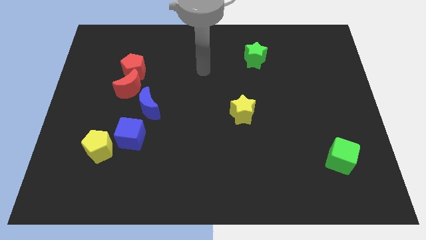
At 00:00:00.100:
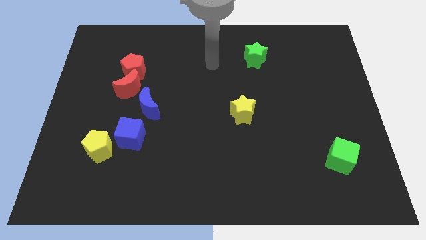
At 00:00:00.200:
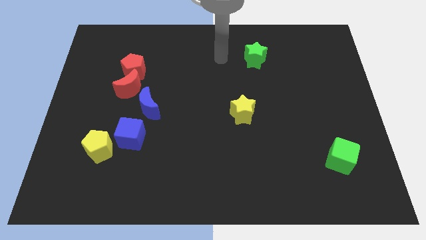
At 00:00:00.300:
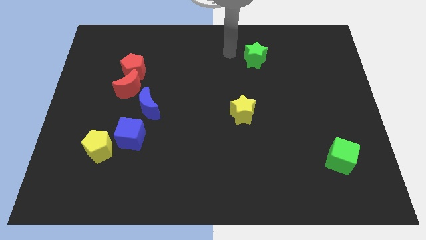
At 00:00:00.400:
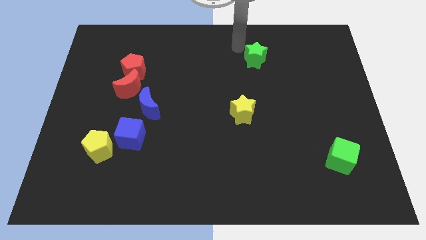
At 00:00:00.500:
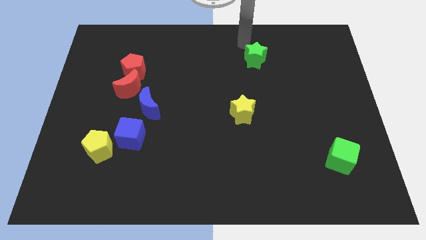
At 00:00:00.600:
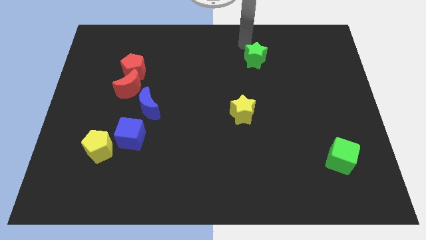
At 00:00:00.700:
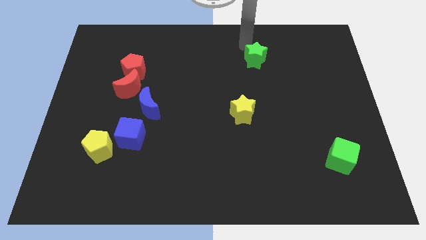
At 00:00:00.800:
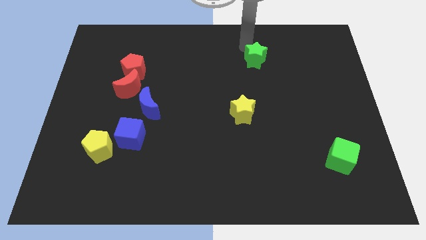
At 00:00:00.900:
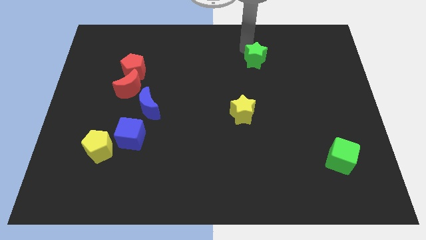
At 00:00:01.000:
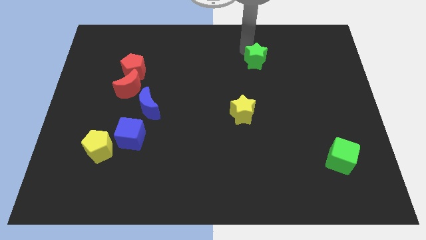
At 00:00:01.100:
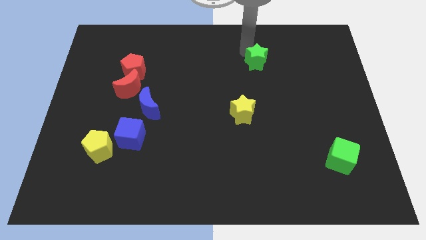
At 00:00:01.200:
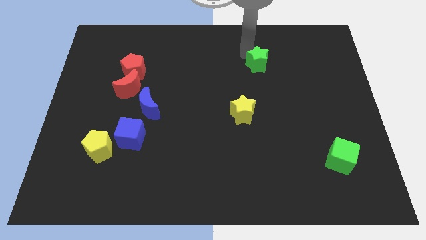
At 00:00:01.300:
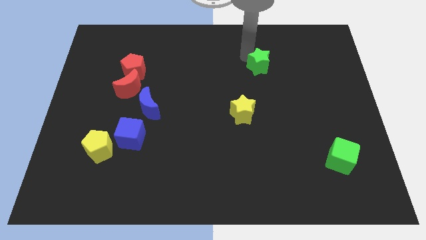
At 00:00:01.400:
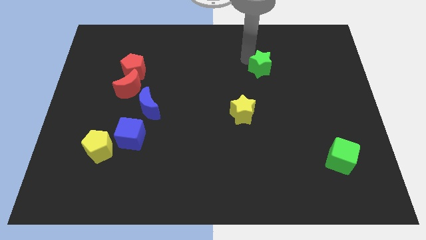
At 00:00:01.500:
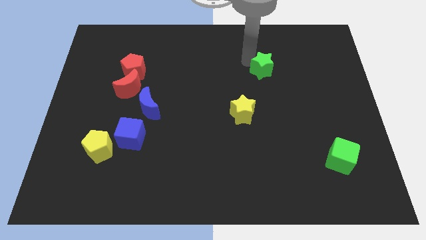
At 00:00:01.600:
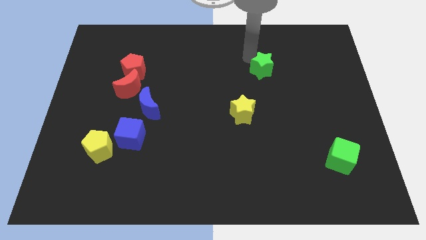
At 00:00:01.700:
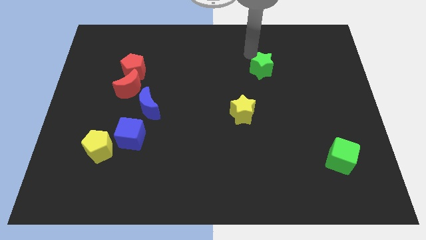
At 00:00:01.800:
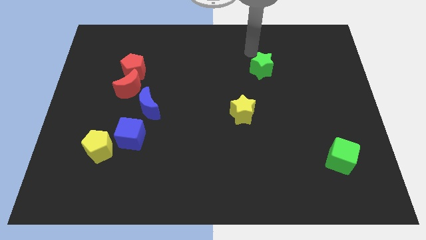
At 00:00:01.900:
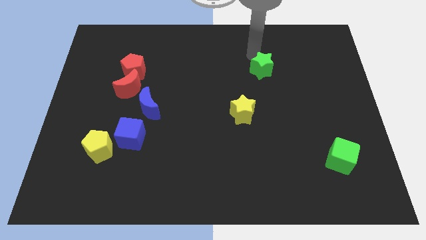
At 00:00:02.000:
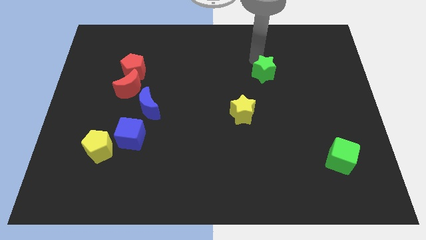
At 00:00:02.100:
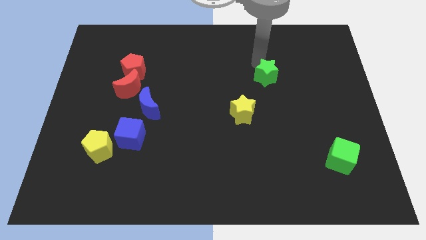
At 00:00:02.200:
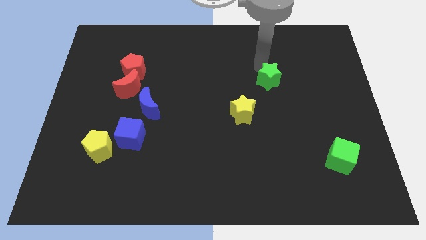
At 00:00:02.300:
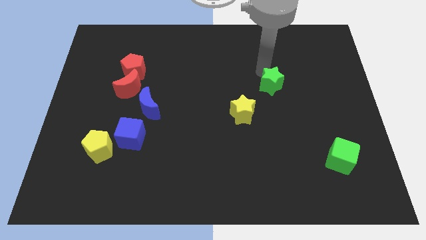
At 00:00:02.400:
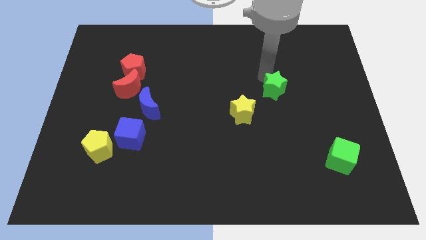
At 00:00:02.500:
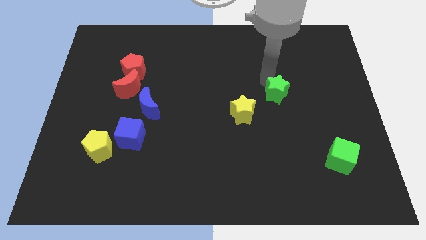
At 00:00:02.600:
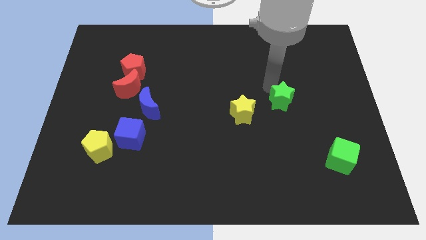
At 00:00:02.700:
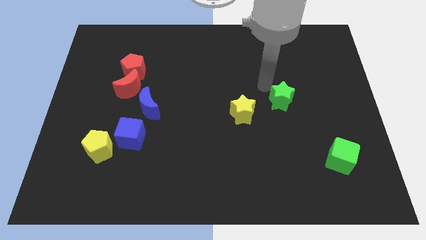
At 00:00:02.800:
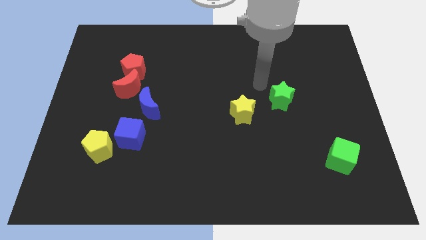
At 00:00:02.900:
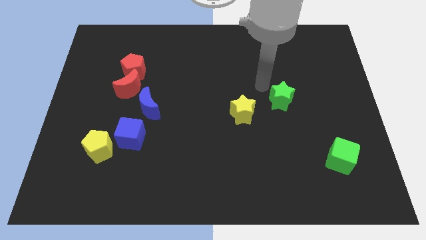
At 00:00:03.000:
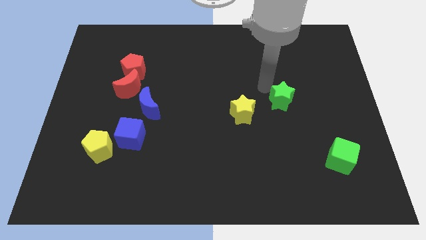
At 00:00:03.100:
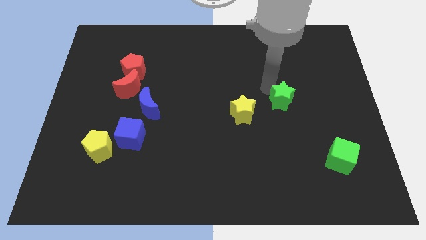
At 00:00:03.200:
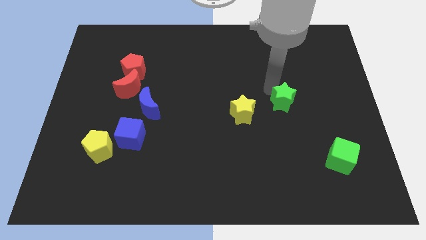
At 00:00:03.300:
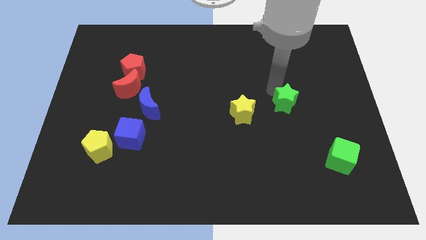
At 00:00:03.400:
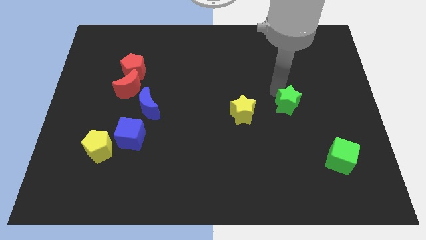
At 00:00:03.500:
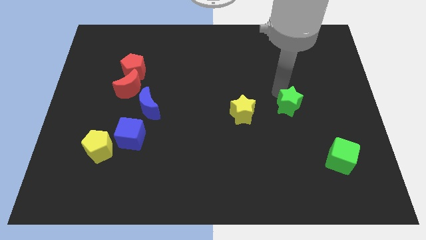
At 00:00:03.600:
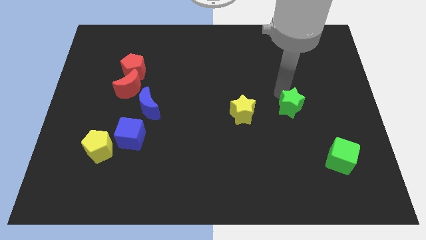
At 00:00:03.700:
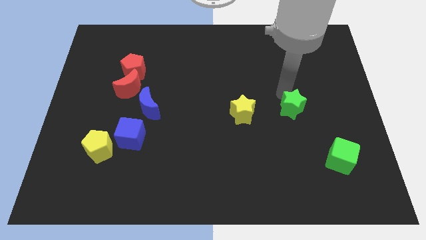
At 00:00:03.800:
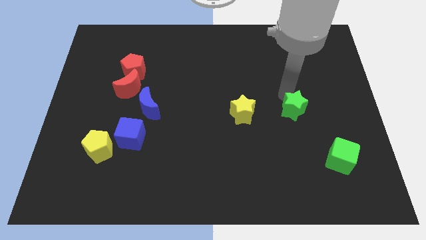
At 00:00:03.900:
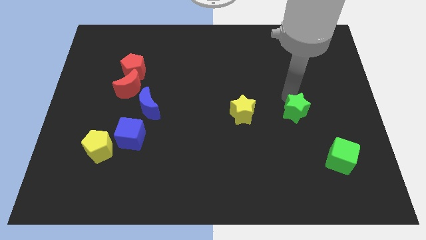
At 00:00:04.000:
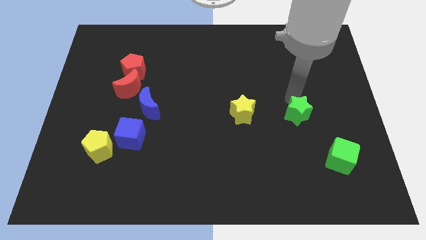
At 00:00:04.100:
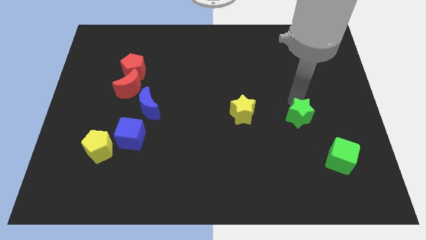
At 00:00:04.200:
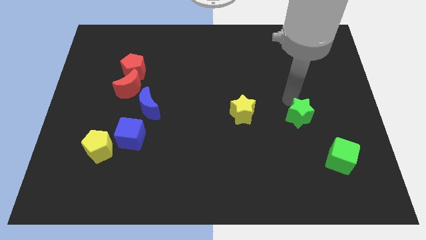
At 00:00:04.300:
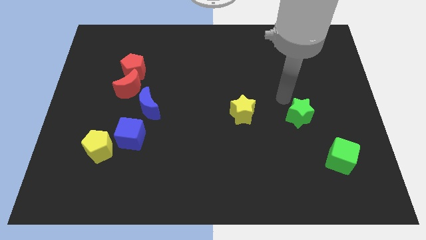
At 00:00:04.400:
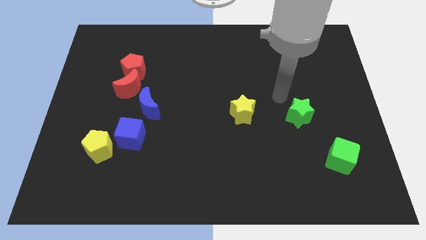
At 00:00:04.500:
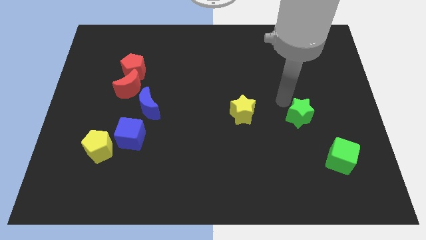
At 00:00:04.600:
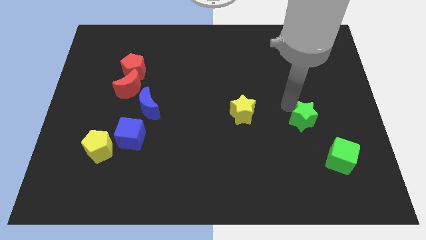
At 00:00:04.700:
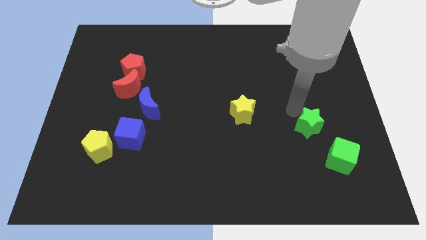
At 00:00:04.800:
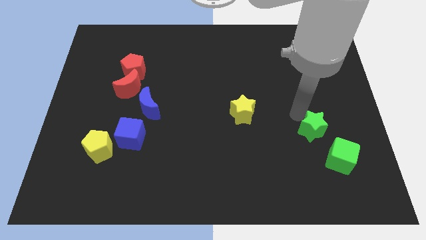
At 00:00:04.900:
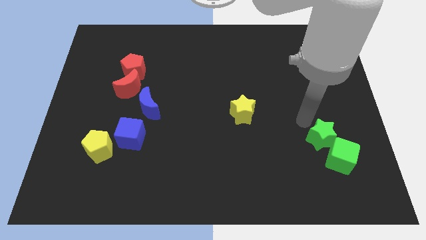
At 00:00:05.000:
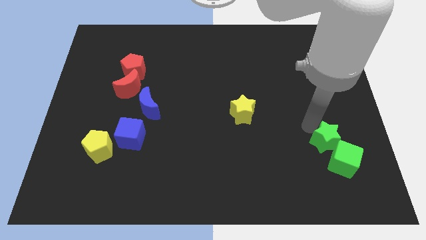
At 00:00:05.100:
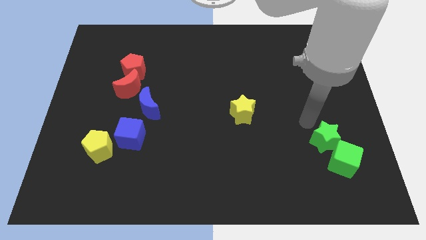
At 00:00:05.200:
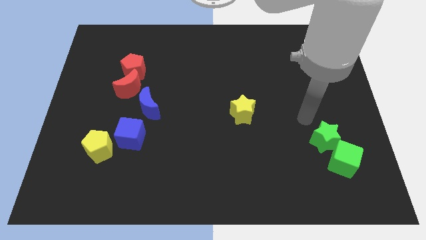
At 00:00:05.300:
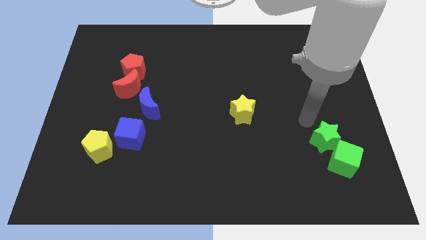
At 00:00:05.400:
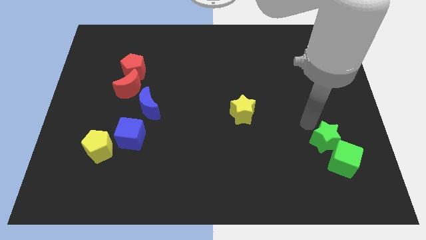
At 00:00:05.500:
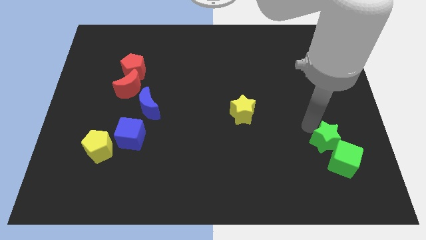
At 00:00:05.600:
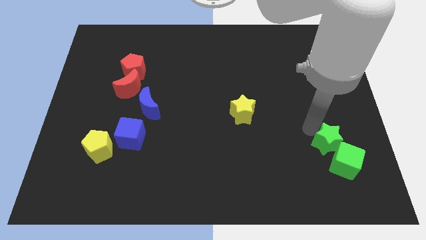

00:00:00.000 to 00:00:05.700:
put the green star to the green cube

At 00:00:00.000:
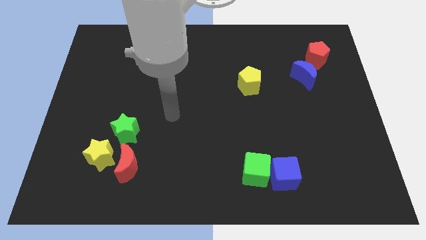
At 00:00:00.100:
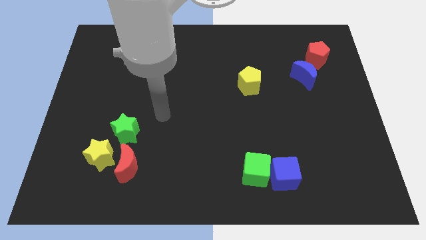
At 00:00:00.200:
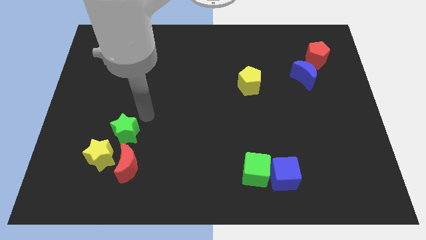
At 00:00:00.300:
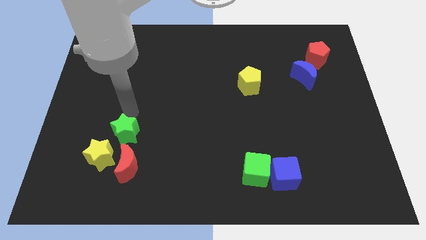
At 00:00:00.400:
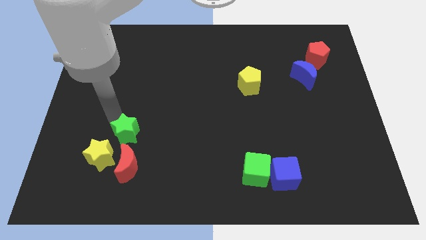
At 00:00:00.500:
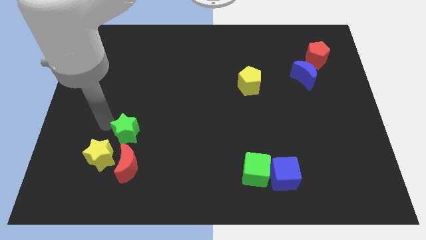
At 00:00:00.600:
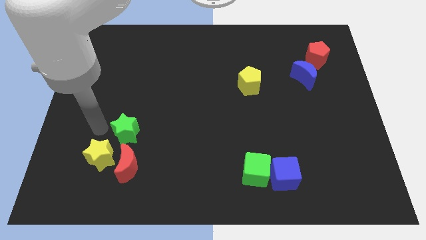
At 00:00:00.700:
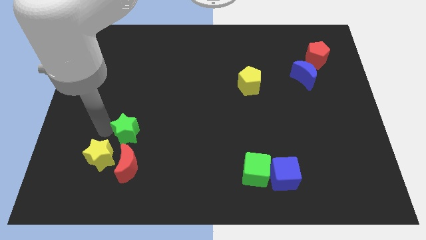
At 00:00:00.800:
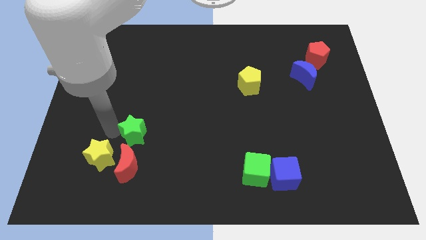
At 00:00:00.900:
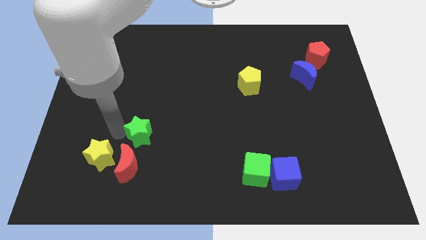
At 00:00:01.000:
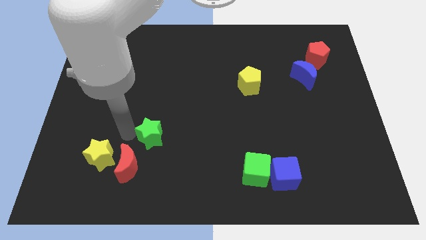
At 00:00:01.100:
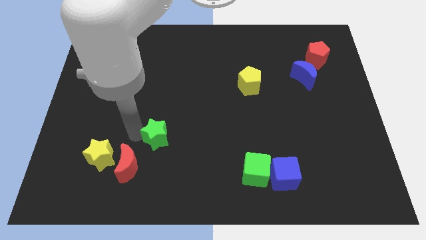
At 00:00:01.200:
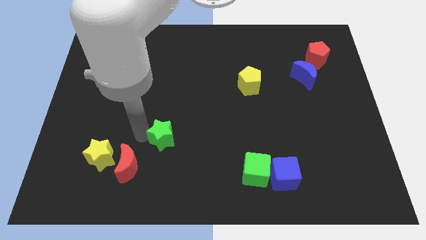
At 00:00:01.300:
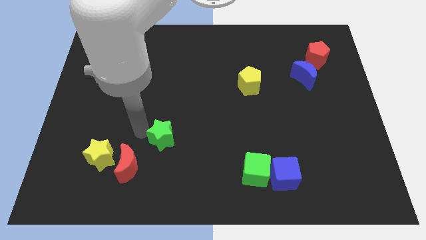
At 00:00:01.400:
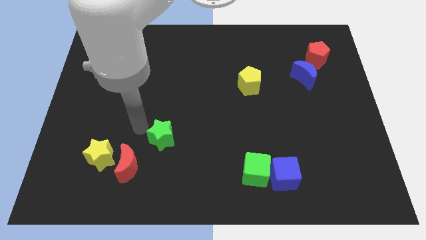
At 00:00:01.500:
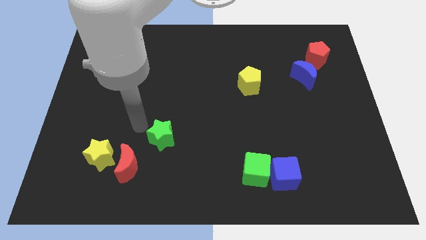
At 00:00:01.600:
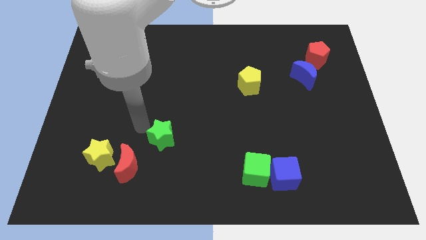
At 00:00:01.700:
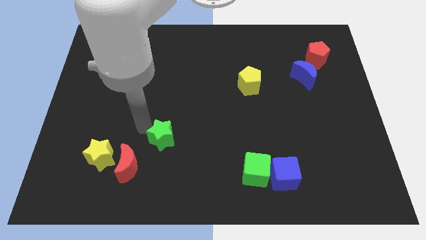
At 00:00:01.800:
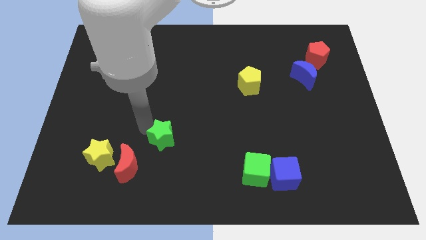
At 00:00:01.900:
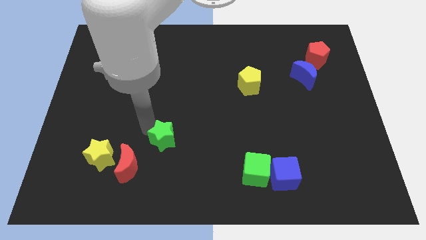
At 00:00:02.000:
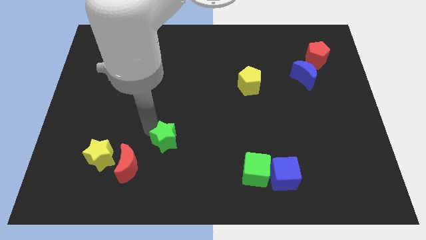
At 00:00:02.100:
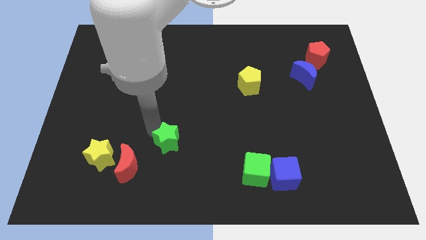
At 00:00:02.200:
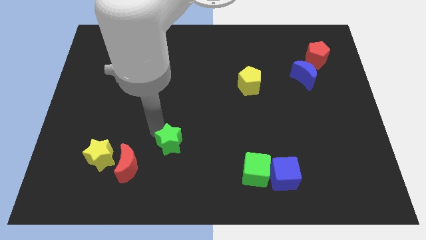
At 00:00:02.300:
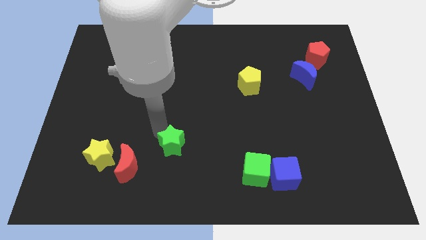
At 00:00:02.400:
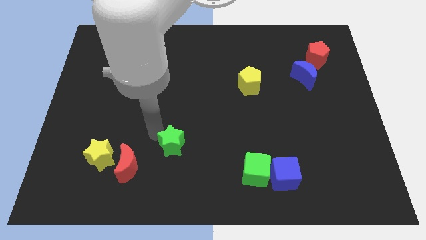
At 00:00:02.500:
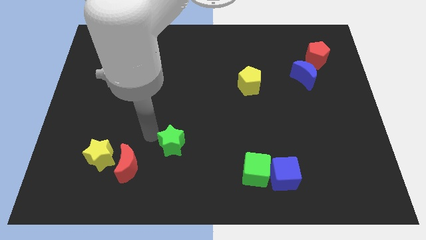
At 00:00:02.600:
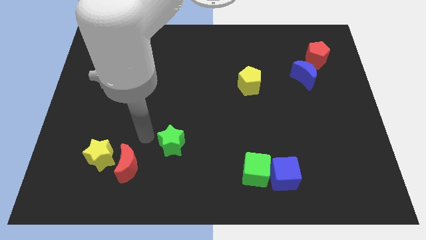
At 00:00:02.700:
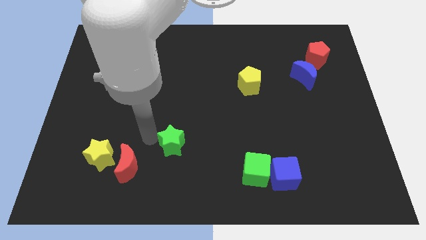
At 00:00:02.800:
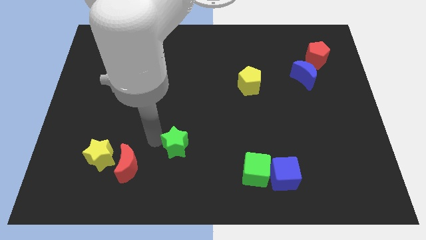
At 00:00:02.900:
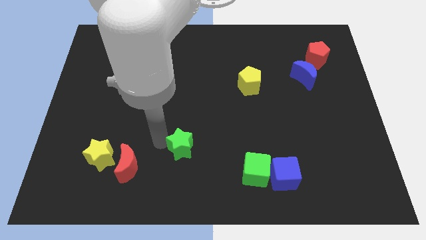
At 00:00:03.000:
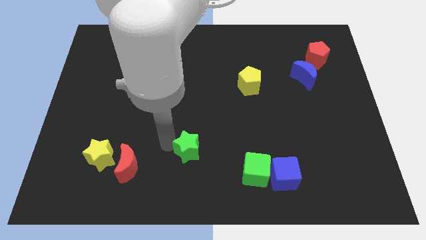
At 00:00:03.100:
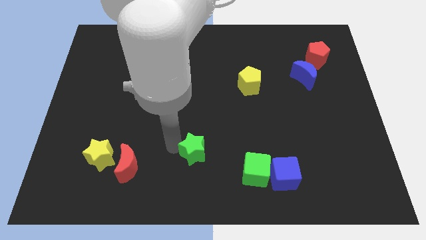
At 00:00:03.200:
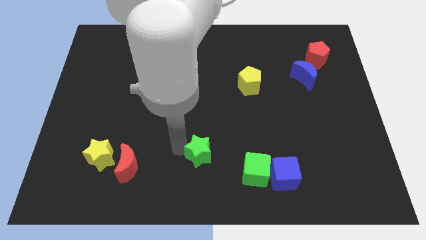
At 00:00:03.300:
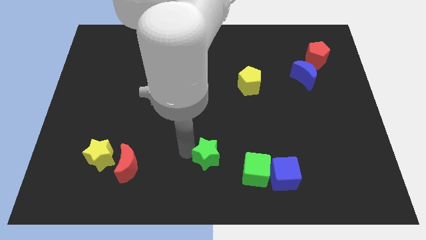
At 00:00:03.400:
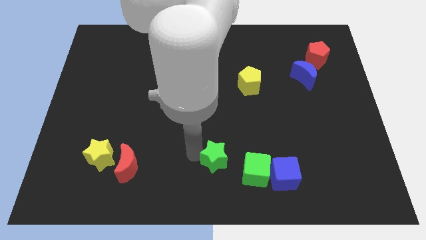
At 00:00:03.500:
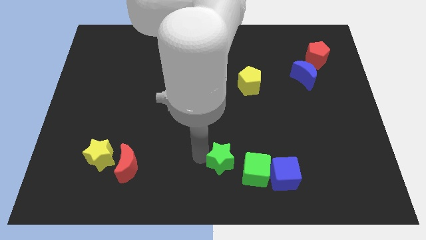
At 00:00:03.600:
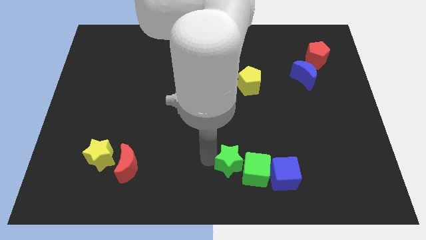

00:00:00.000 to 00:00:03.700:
slide the green star next to the green cube
